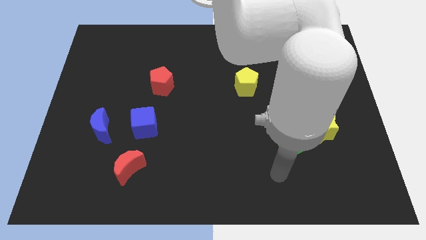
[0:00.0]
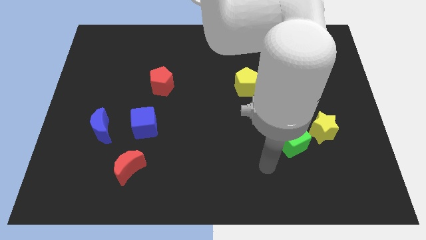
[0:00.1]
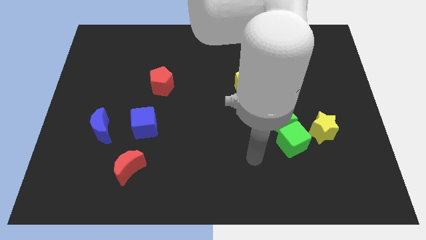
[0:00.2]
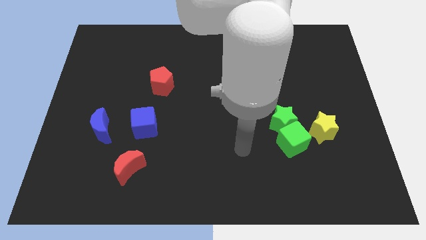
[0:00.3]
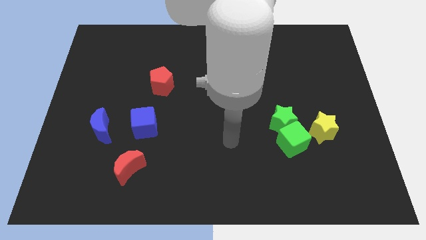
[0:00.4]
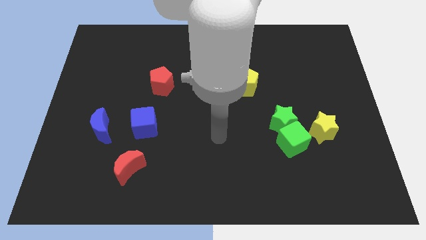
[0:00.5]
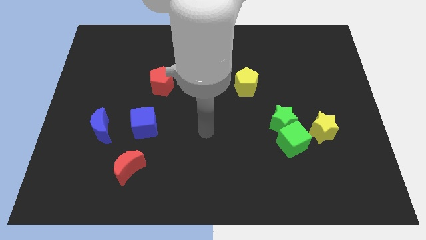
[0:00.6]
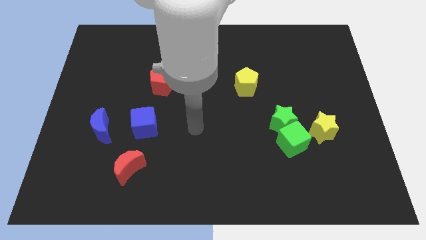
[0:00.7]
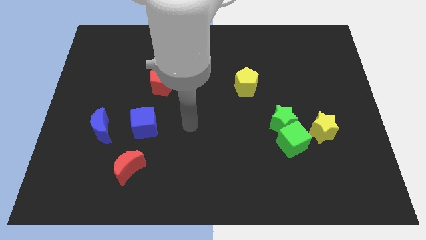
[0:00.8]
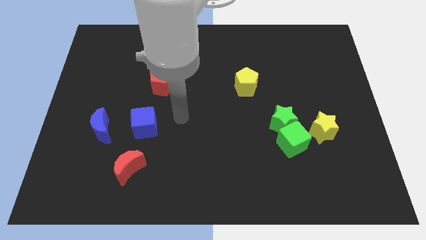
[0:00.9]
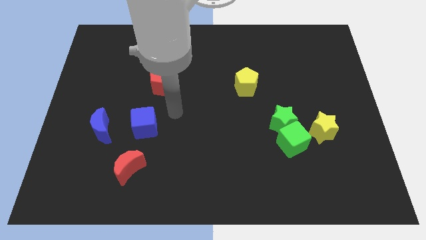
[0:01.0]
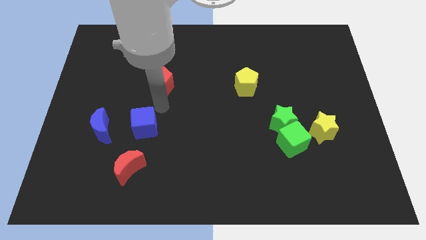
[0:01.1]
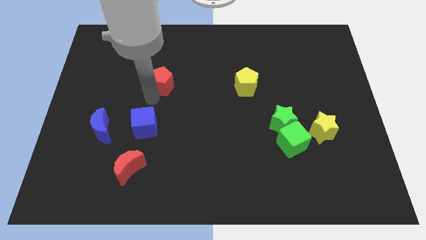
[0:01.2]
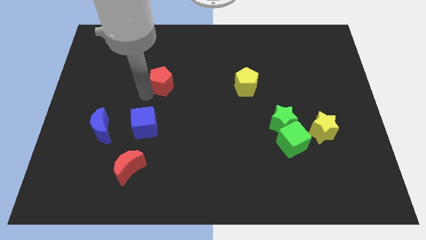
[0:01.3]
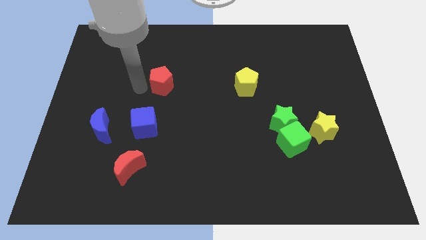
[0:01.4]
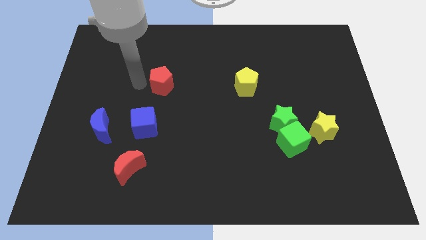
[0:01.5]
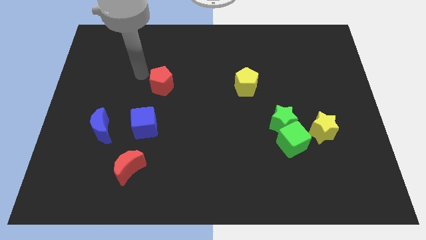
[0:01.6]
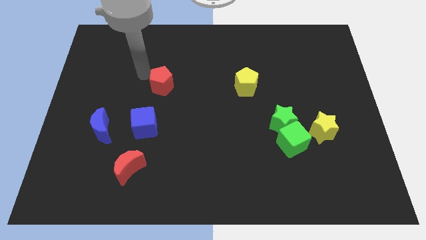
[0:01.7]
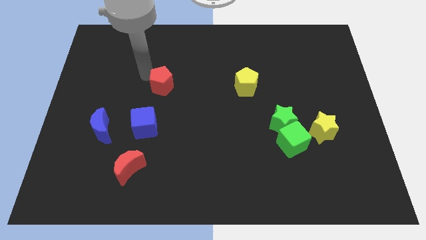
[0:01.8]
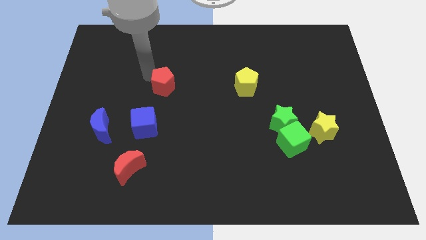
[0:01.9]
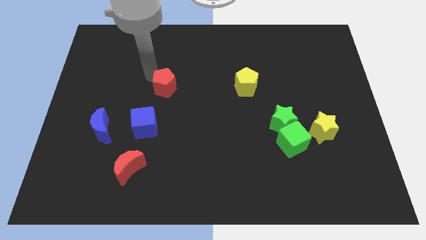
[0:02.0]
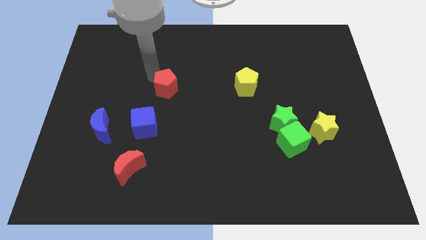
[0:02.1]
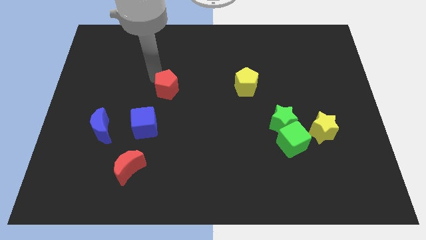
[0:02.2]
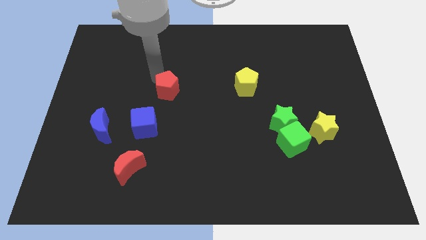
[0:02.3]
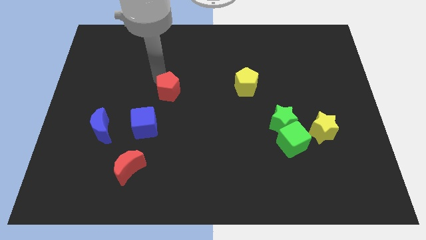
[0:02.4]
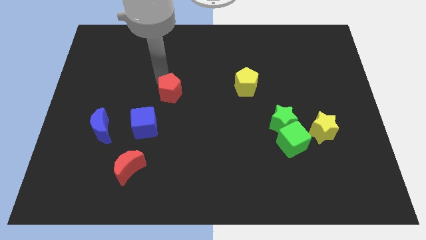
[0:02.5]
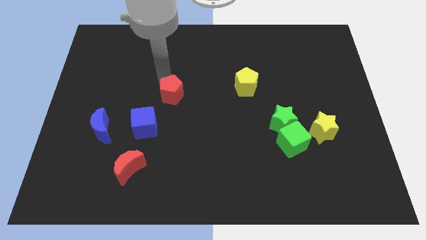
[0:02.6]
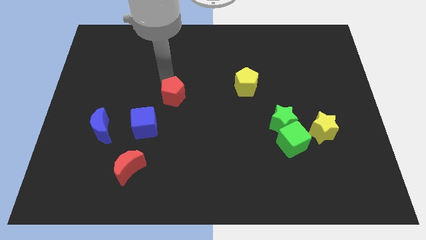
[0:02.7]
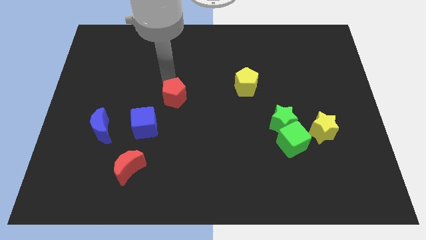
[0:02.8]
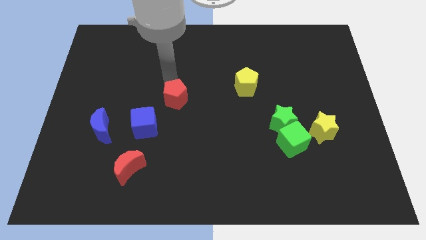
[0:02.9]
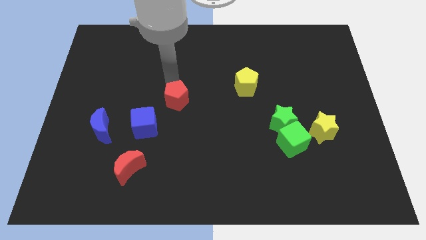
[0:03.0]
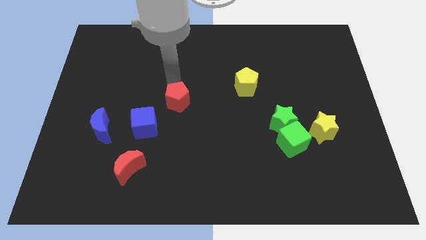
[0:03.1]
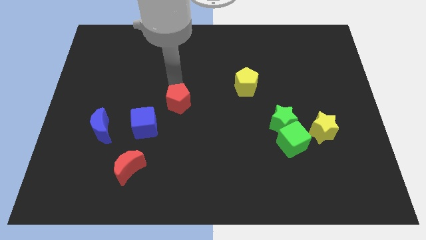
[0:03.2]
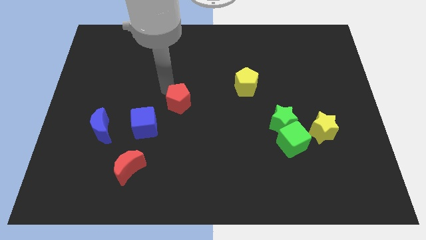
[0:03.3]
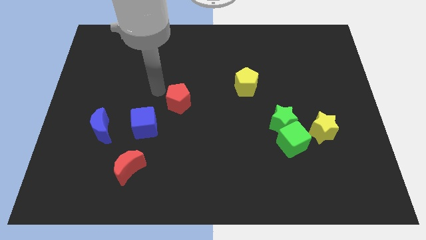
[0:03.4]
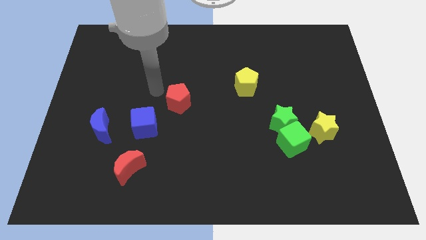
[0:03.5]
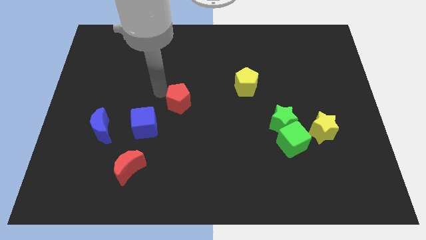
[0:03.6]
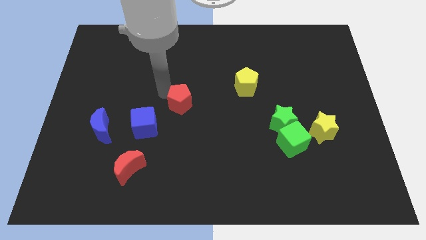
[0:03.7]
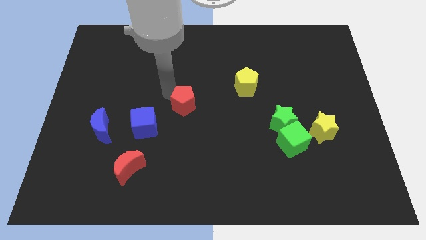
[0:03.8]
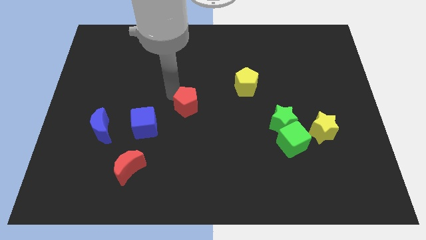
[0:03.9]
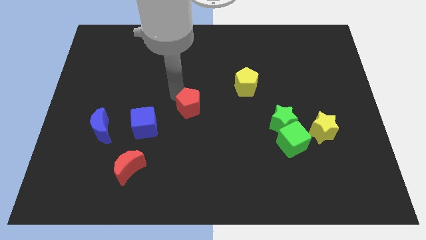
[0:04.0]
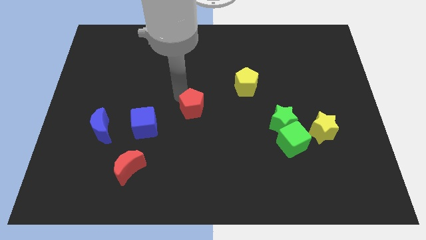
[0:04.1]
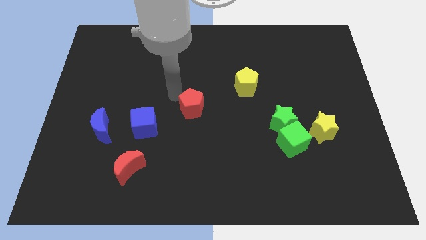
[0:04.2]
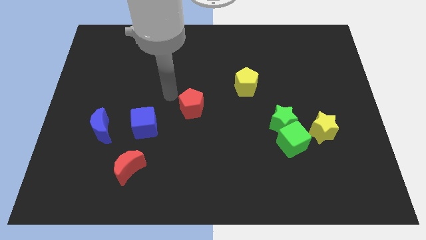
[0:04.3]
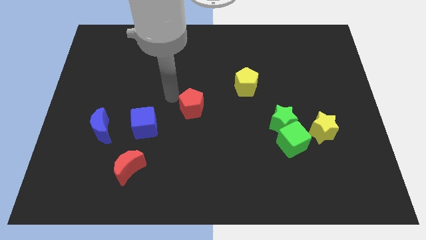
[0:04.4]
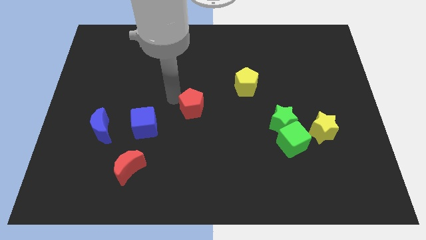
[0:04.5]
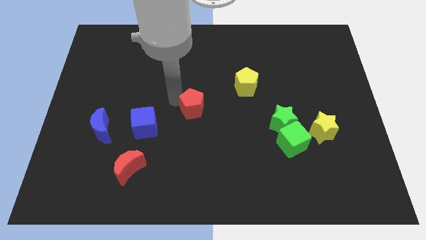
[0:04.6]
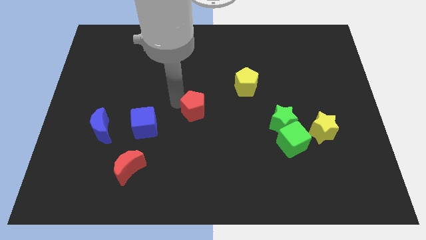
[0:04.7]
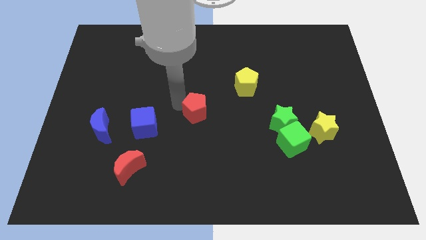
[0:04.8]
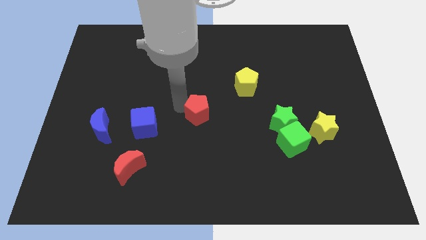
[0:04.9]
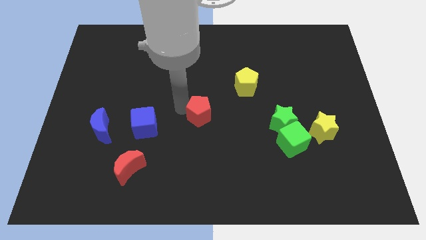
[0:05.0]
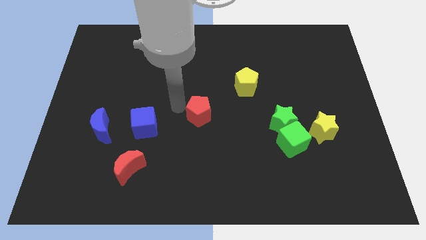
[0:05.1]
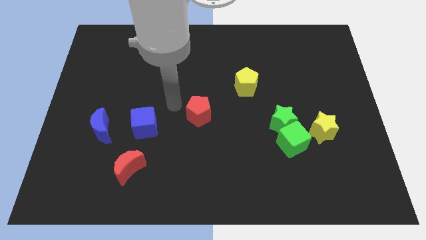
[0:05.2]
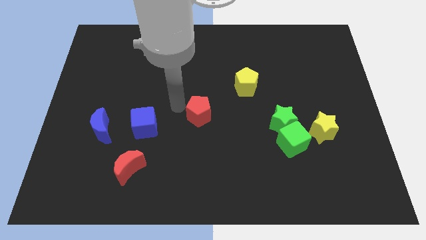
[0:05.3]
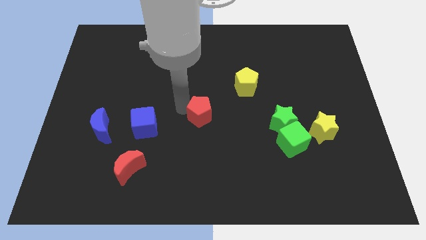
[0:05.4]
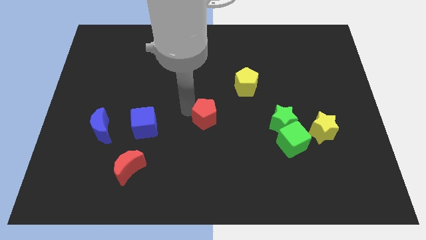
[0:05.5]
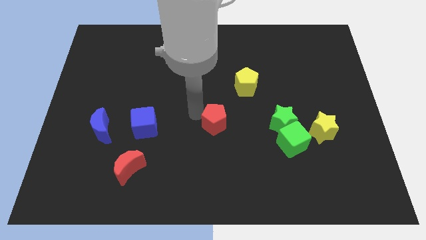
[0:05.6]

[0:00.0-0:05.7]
put the red pentagon just left of the green star

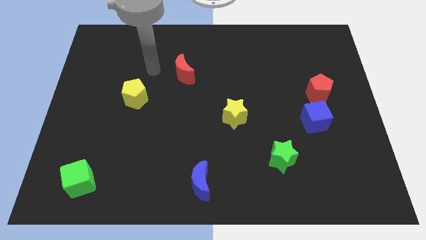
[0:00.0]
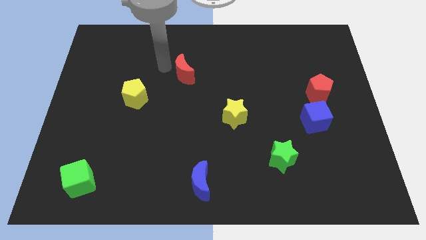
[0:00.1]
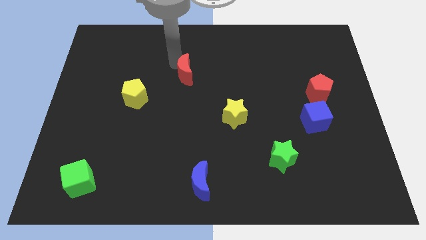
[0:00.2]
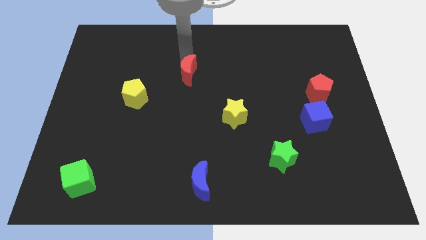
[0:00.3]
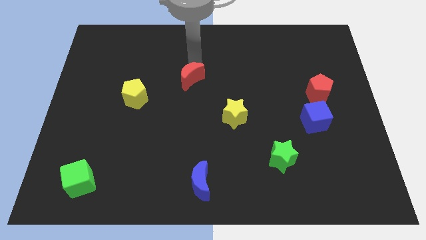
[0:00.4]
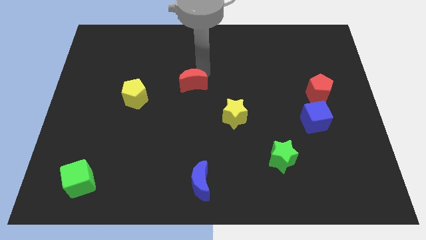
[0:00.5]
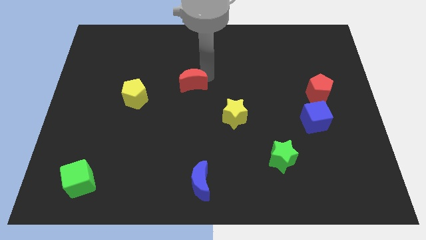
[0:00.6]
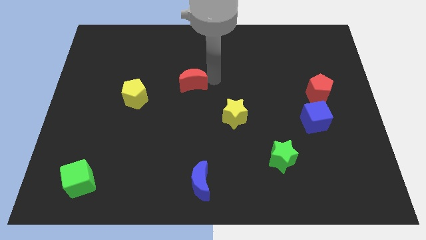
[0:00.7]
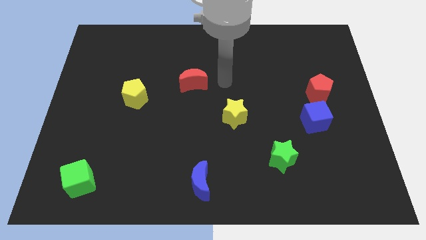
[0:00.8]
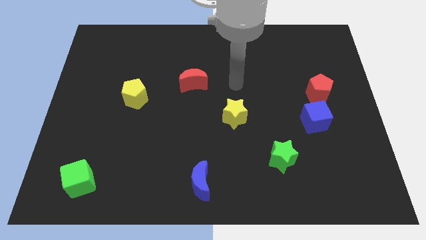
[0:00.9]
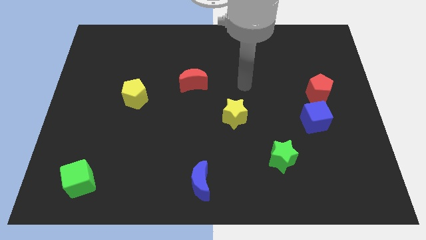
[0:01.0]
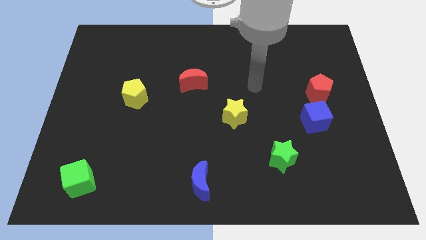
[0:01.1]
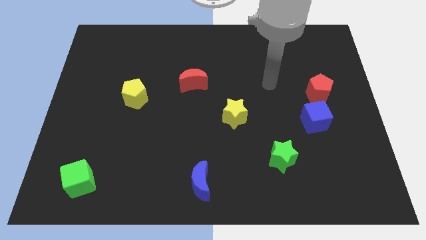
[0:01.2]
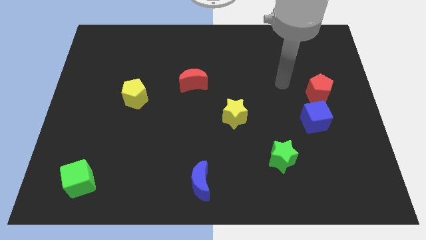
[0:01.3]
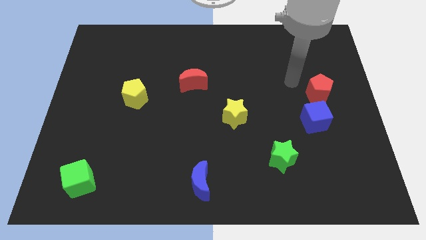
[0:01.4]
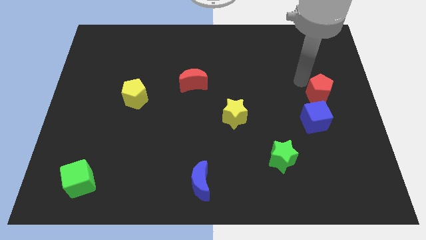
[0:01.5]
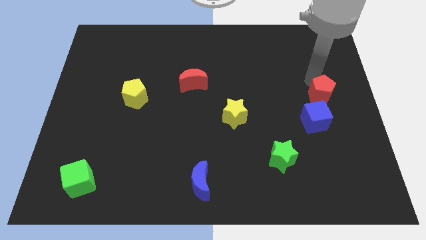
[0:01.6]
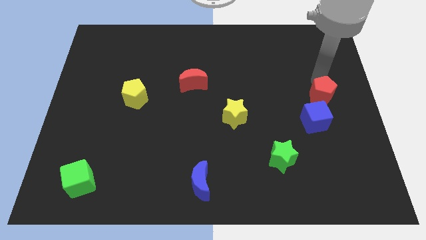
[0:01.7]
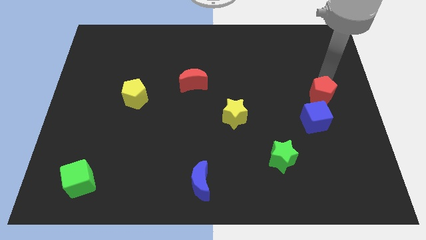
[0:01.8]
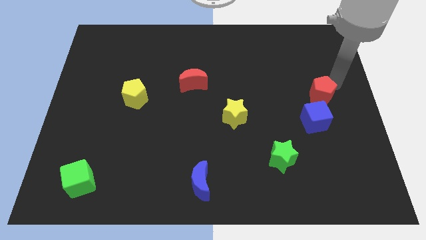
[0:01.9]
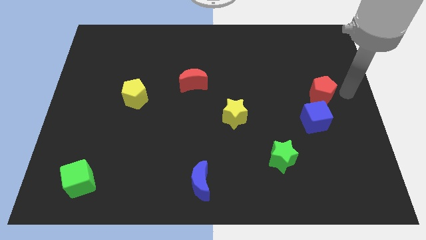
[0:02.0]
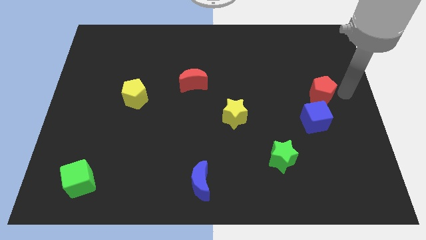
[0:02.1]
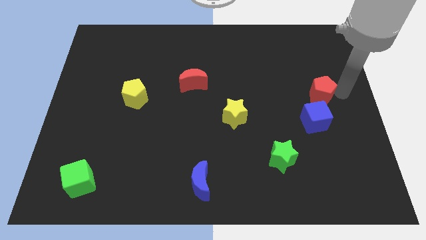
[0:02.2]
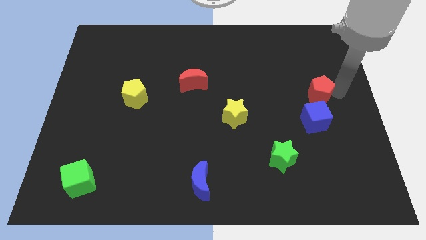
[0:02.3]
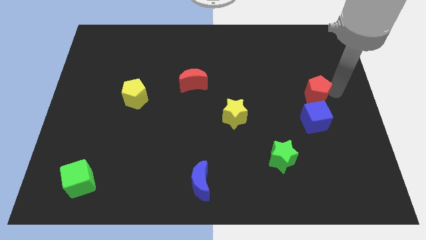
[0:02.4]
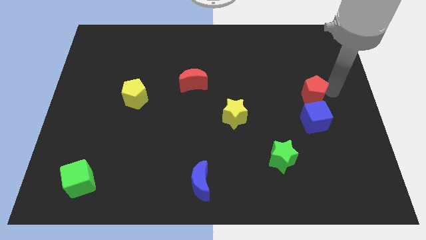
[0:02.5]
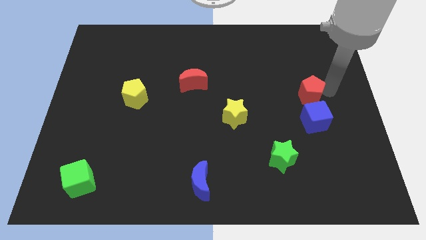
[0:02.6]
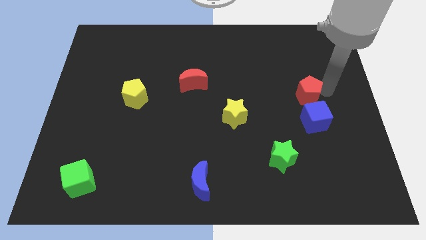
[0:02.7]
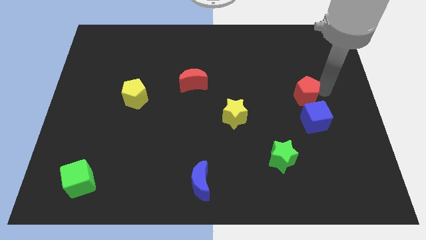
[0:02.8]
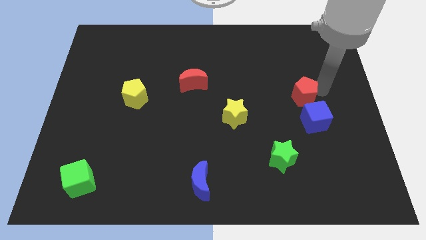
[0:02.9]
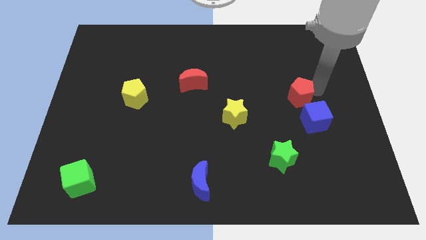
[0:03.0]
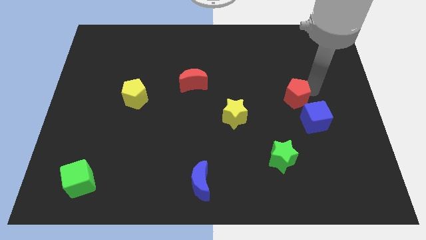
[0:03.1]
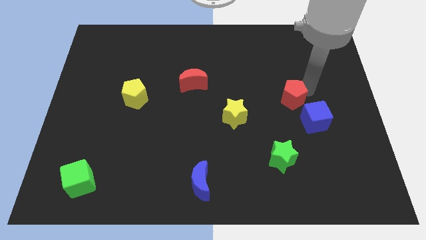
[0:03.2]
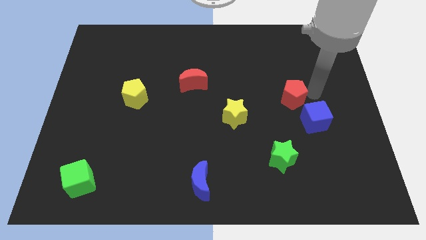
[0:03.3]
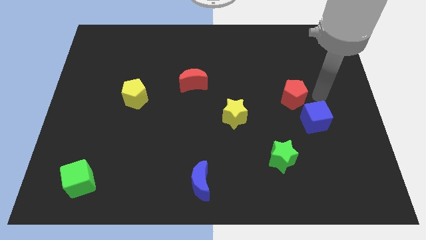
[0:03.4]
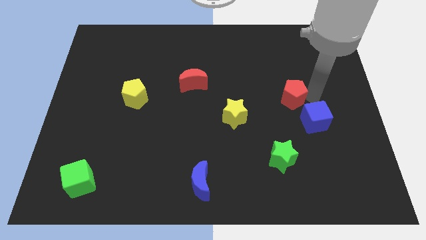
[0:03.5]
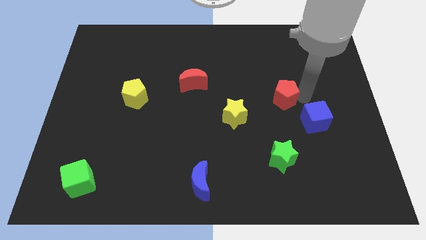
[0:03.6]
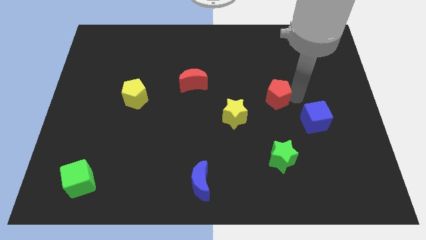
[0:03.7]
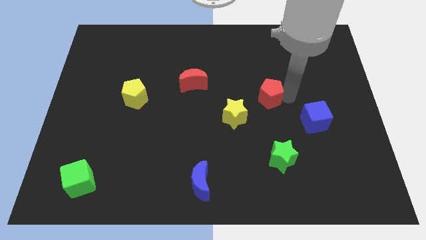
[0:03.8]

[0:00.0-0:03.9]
move the red pentagon diagonally up and to the right of the yellow star
